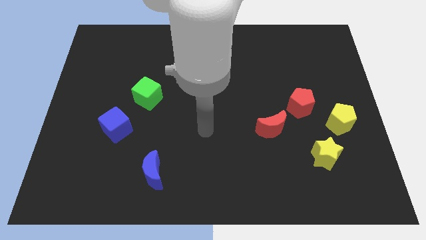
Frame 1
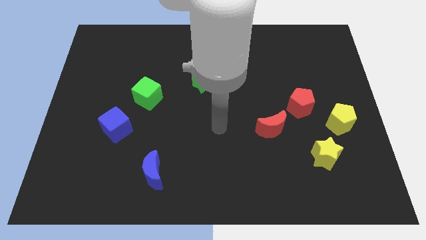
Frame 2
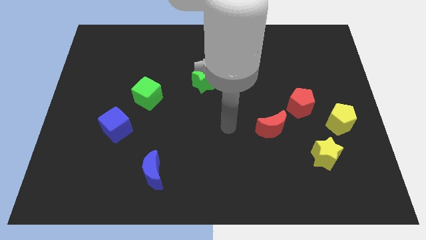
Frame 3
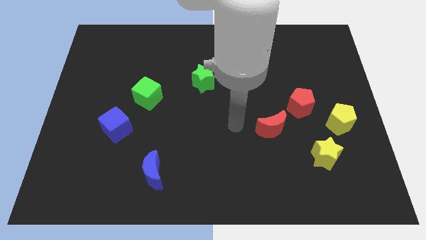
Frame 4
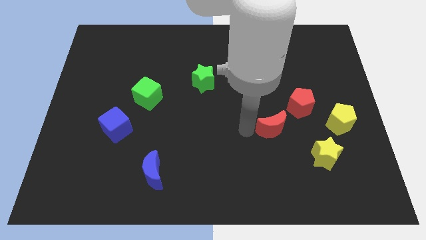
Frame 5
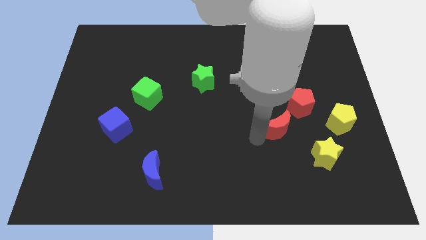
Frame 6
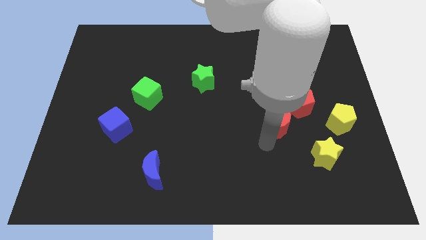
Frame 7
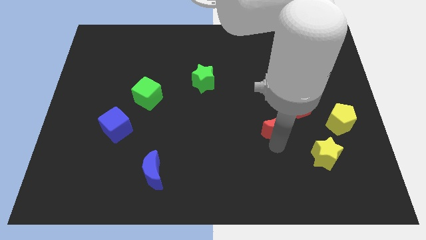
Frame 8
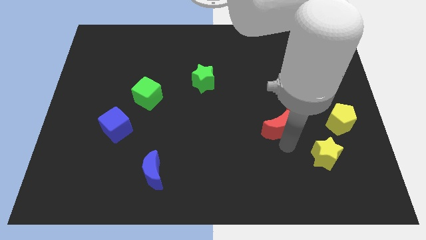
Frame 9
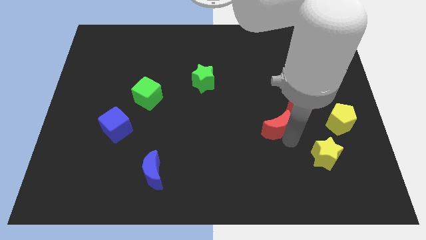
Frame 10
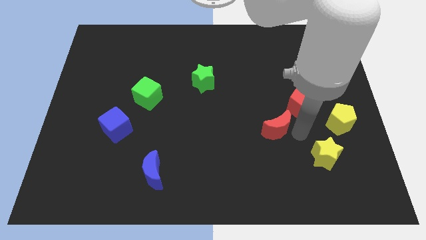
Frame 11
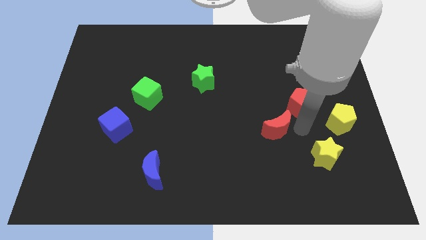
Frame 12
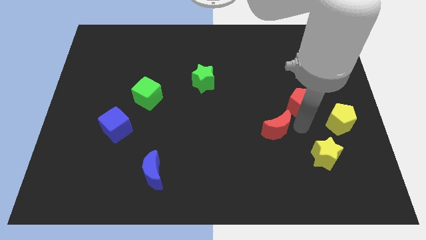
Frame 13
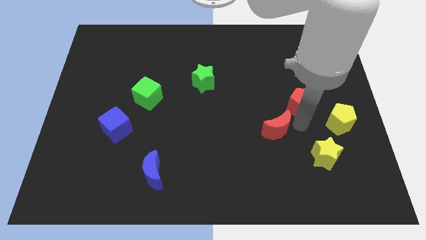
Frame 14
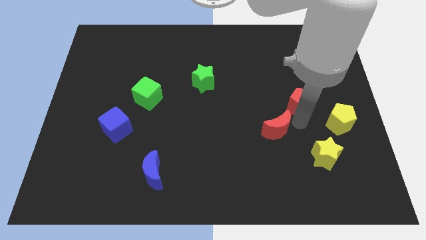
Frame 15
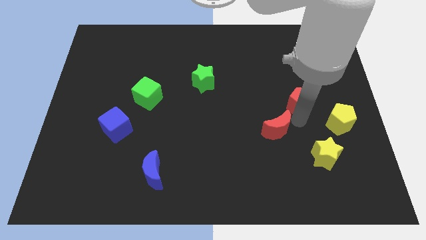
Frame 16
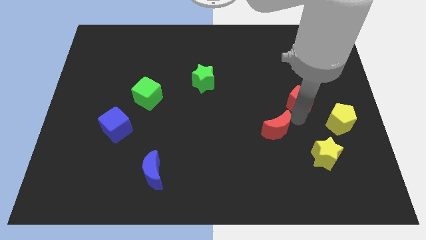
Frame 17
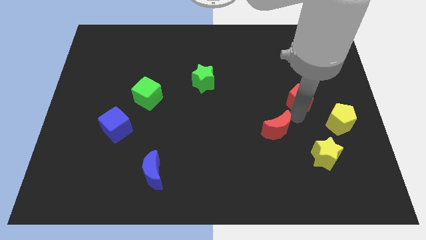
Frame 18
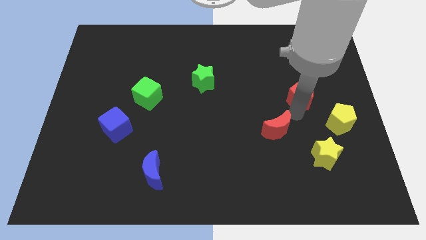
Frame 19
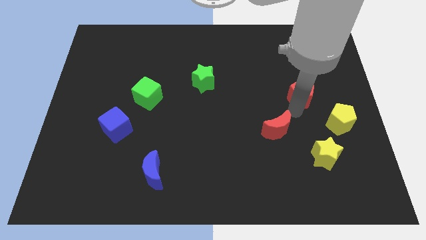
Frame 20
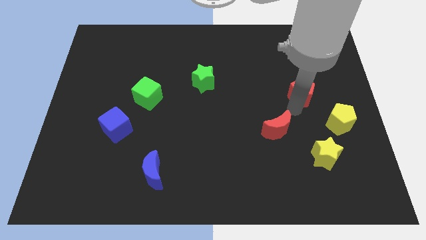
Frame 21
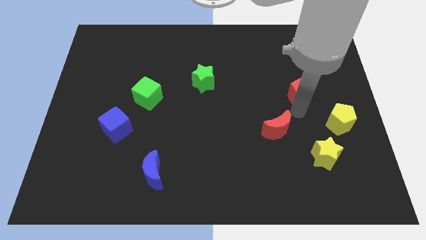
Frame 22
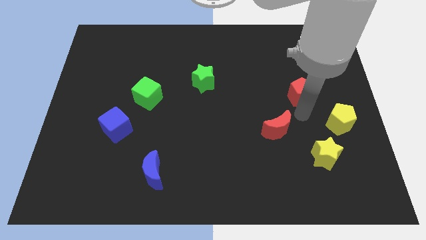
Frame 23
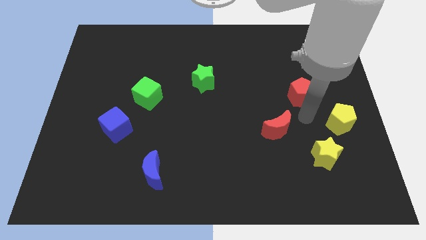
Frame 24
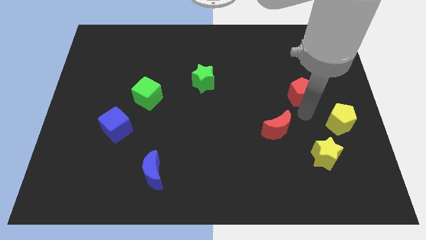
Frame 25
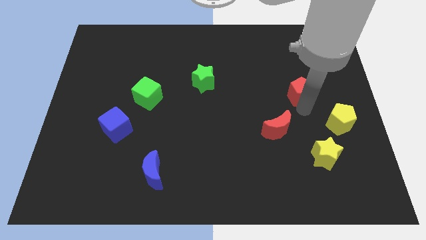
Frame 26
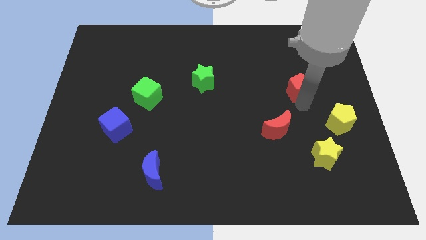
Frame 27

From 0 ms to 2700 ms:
pull the red pentagon apart from the yellow pentagon and red moon

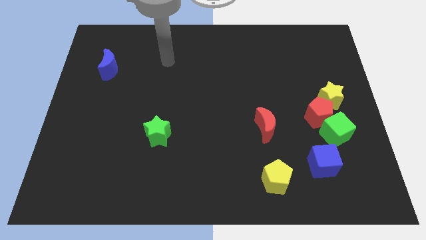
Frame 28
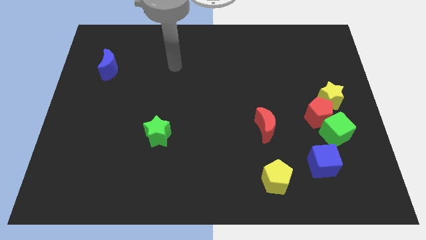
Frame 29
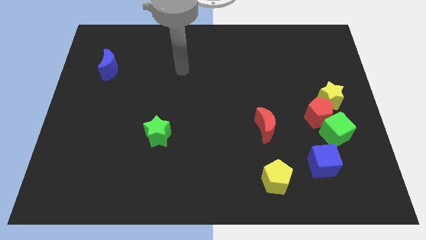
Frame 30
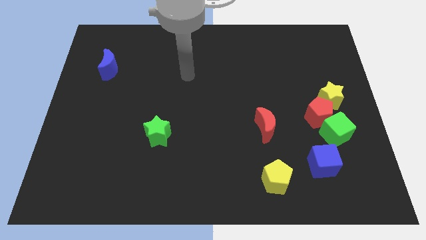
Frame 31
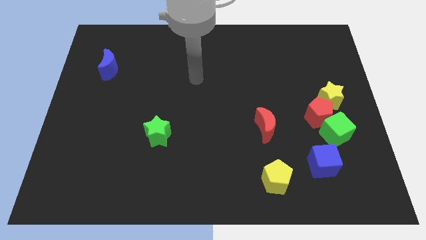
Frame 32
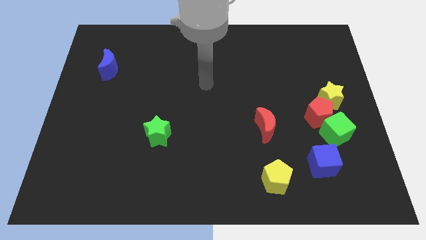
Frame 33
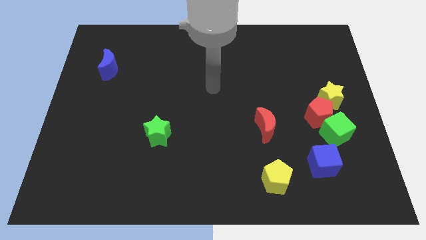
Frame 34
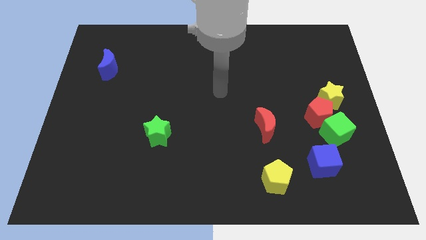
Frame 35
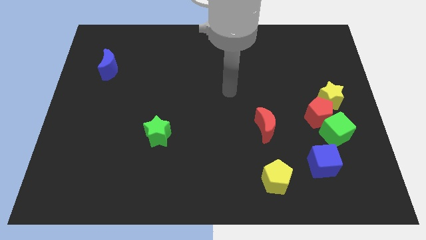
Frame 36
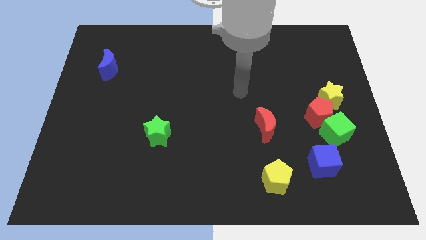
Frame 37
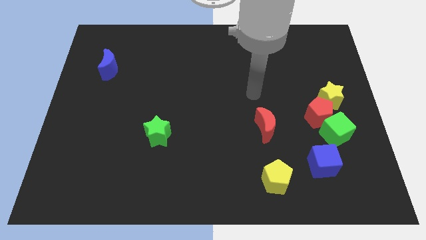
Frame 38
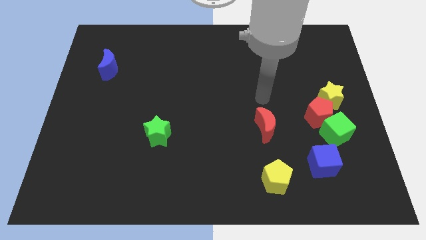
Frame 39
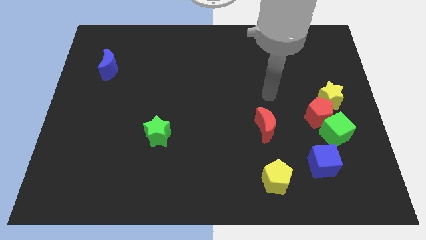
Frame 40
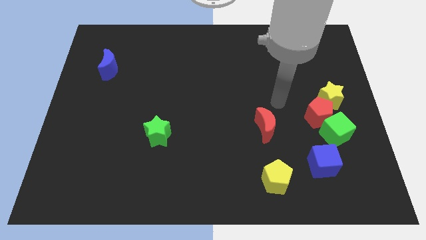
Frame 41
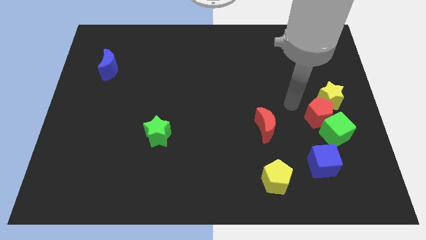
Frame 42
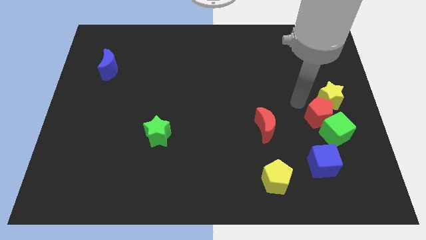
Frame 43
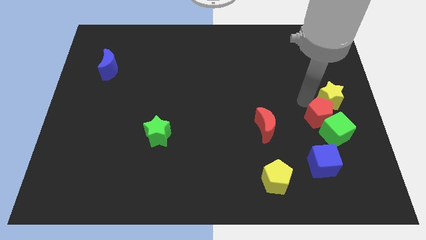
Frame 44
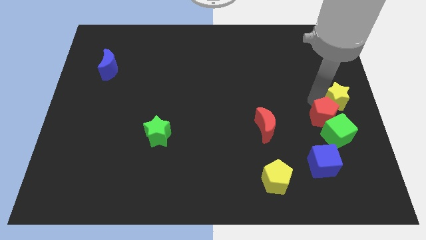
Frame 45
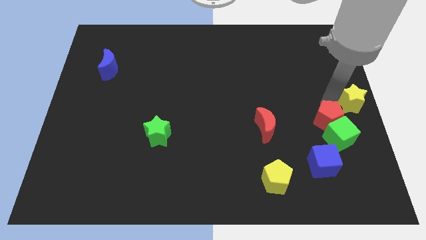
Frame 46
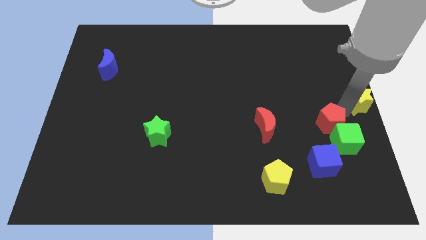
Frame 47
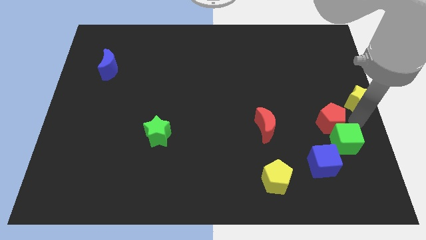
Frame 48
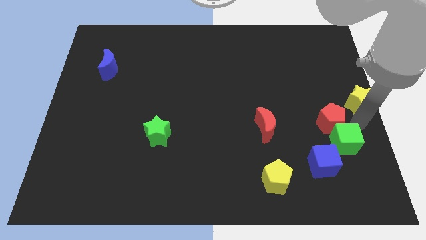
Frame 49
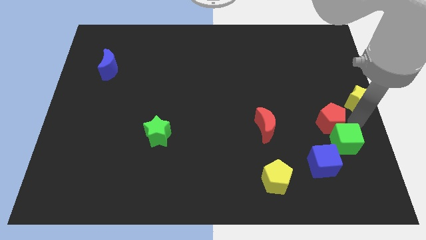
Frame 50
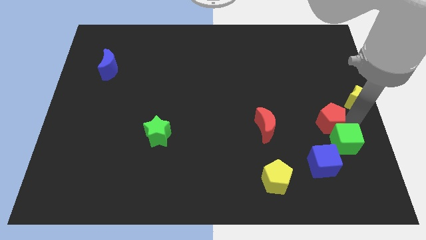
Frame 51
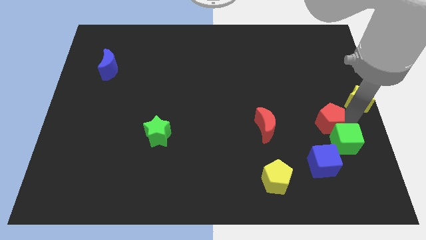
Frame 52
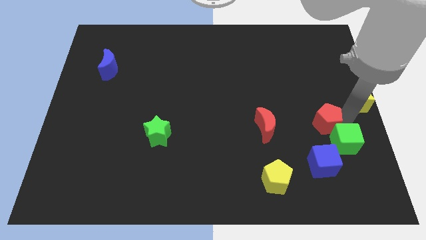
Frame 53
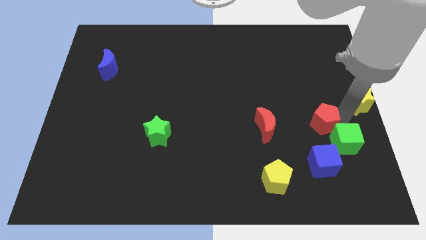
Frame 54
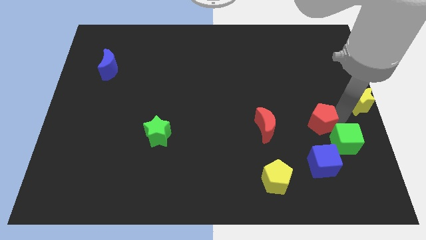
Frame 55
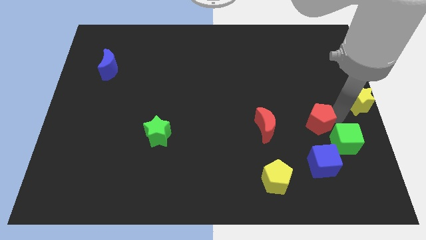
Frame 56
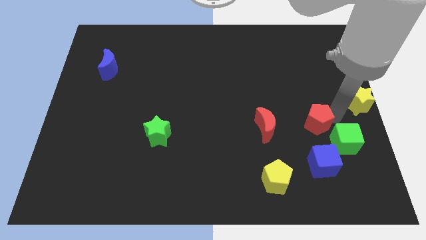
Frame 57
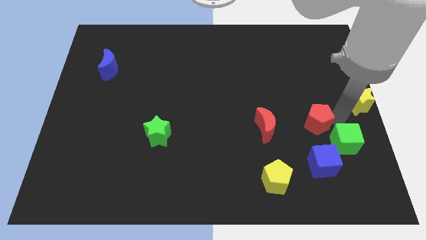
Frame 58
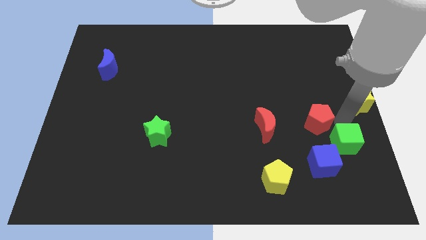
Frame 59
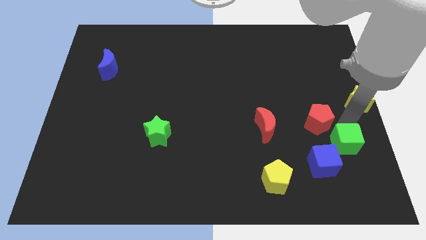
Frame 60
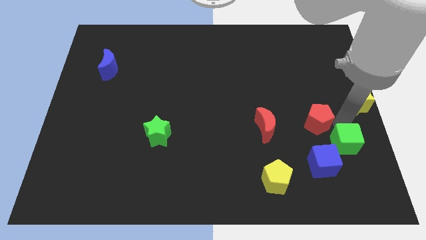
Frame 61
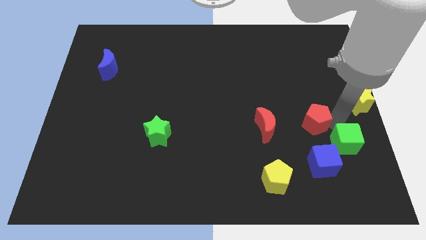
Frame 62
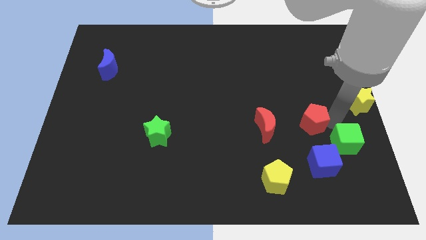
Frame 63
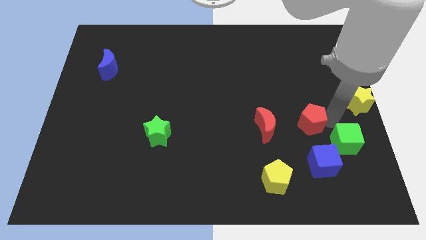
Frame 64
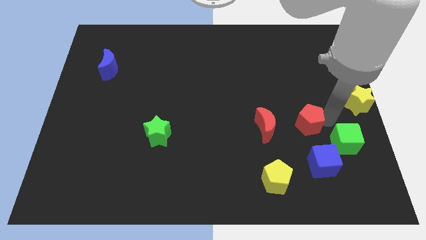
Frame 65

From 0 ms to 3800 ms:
pull the red pentagon apart from the green cube and yellow star

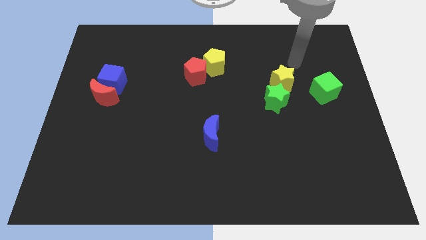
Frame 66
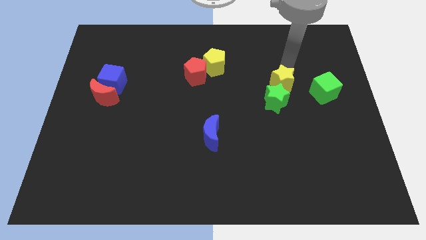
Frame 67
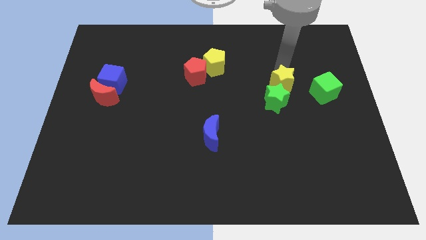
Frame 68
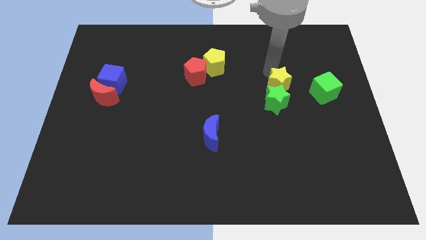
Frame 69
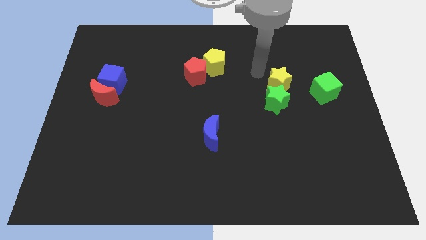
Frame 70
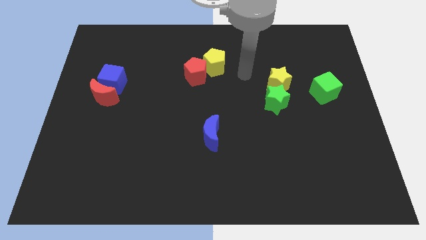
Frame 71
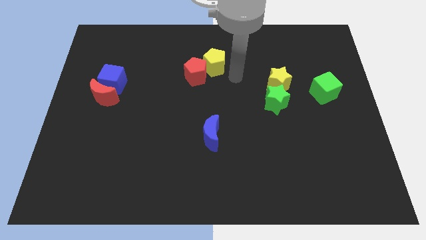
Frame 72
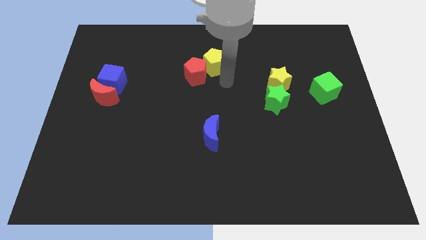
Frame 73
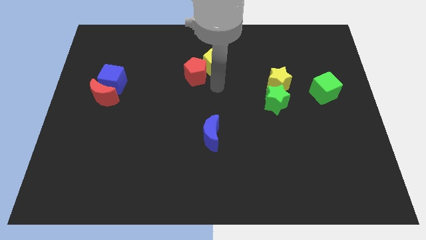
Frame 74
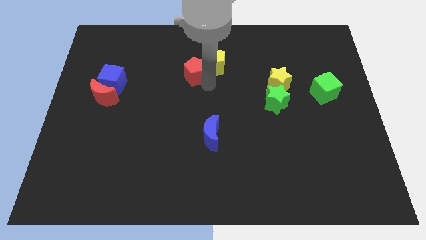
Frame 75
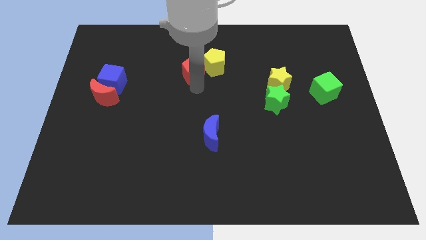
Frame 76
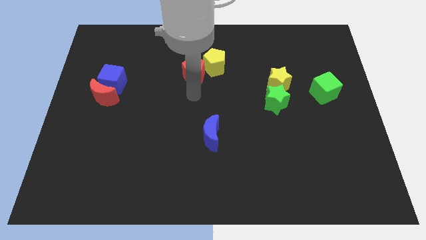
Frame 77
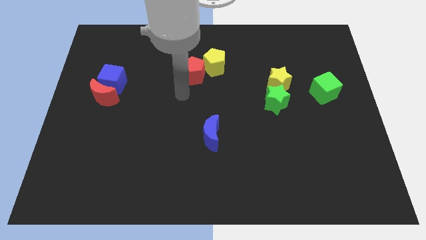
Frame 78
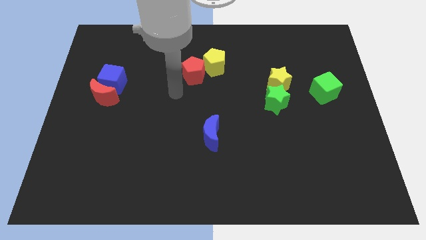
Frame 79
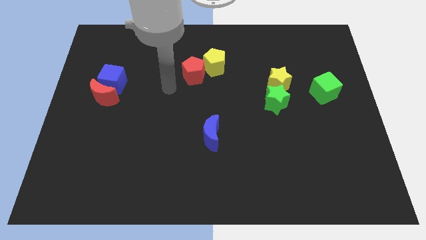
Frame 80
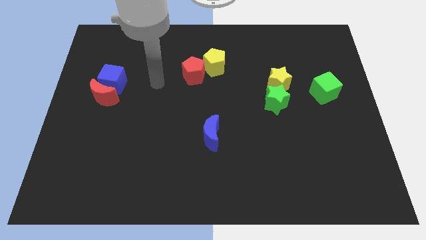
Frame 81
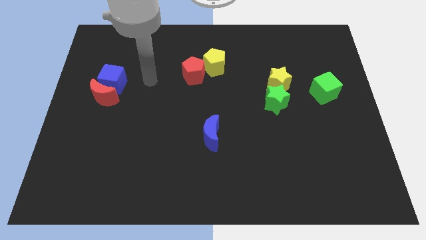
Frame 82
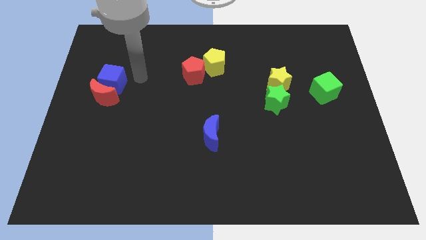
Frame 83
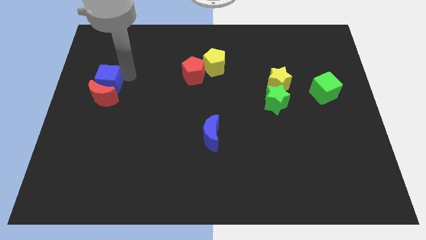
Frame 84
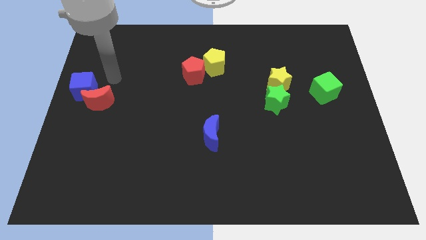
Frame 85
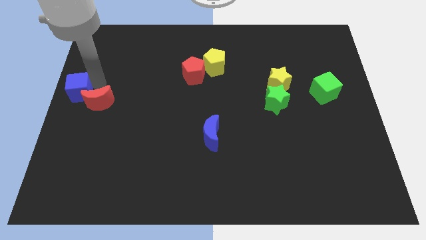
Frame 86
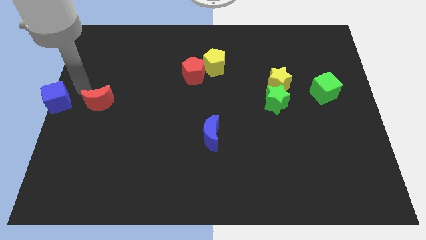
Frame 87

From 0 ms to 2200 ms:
move the red moon away from the blue cube

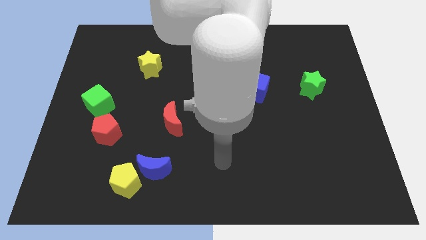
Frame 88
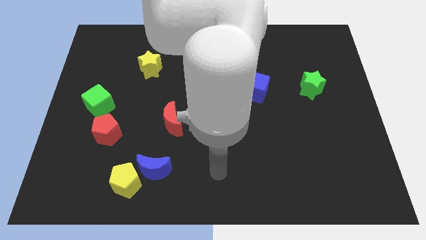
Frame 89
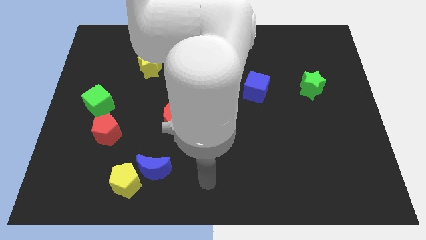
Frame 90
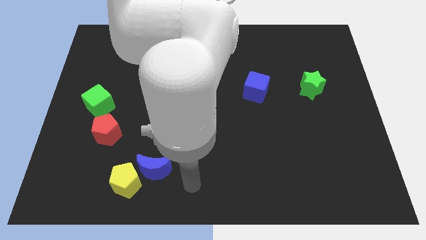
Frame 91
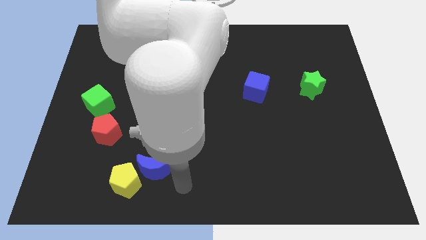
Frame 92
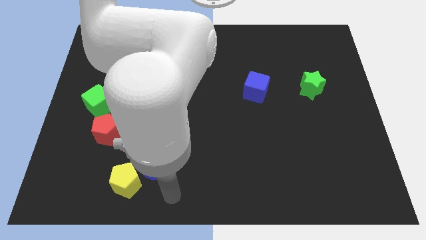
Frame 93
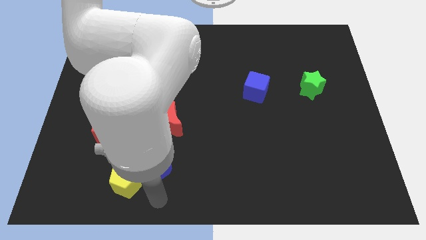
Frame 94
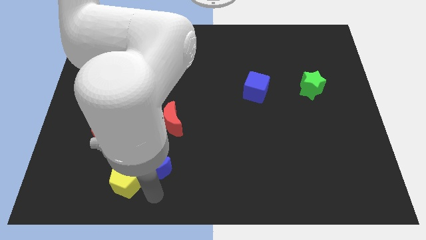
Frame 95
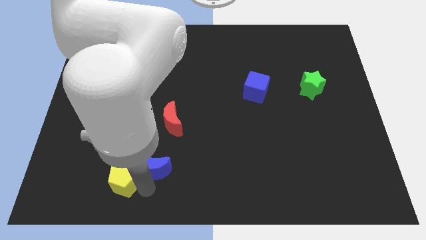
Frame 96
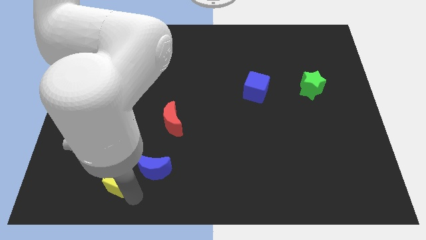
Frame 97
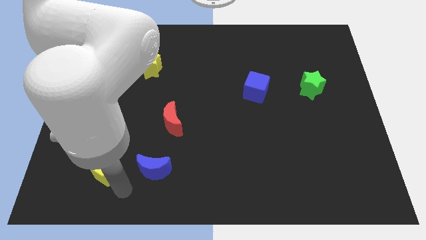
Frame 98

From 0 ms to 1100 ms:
move the blue moon away from the yellow pentagon
